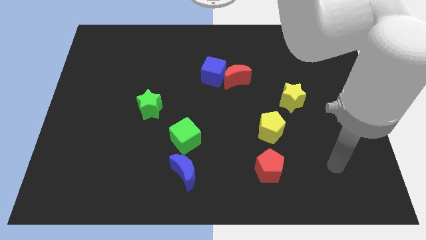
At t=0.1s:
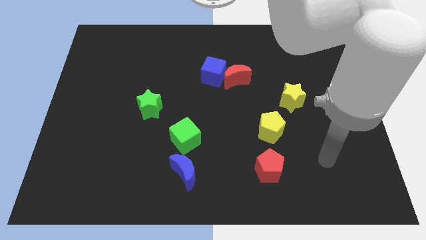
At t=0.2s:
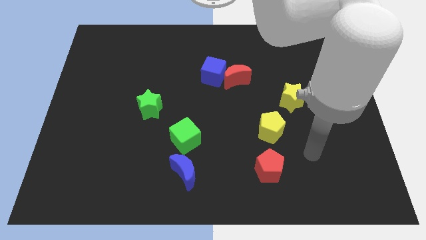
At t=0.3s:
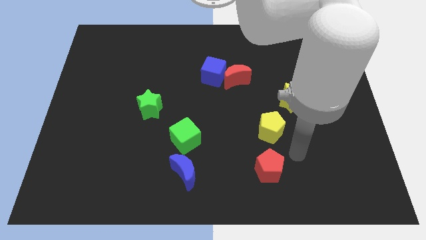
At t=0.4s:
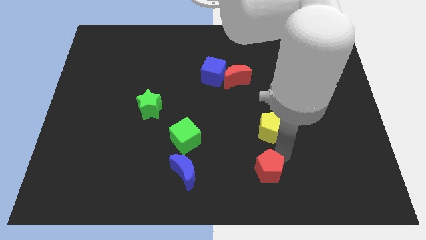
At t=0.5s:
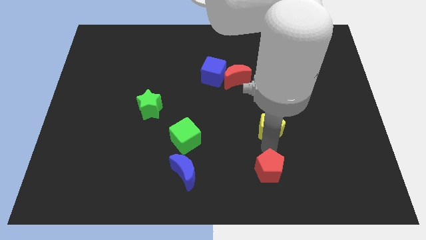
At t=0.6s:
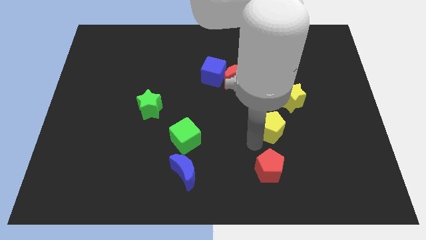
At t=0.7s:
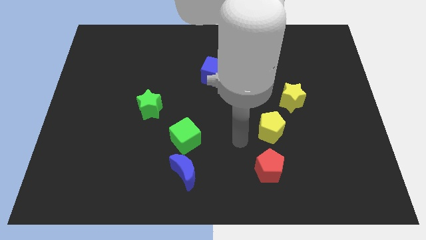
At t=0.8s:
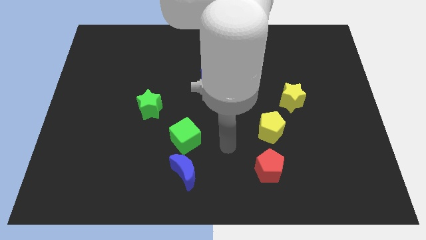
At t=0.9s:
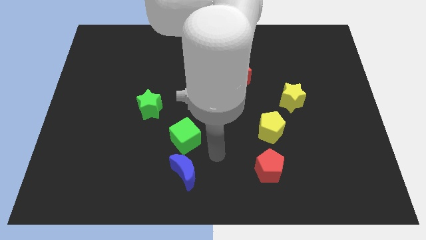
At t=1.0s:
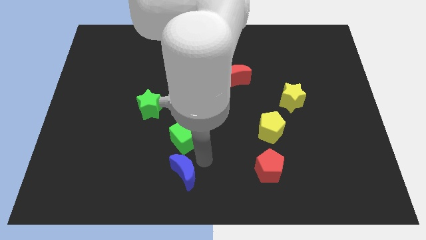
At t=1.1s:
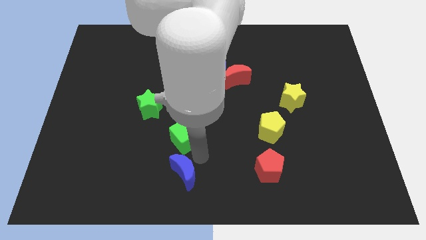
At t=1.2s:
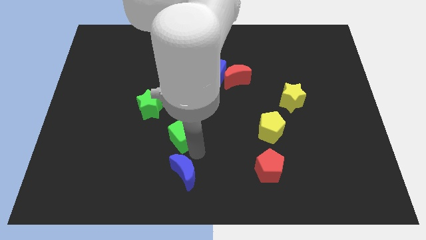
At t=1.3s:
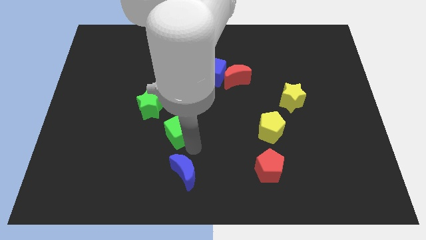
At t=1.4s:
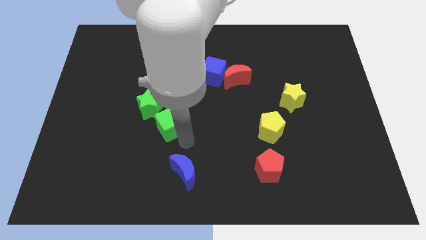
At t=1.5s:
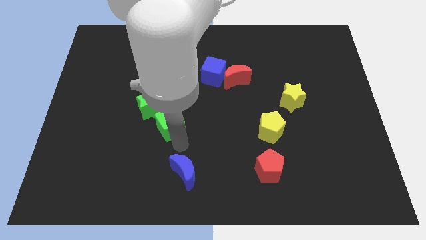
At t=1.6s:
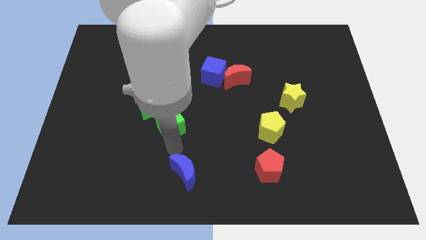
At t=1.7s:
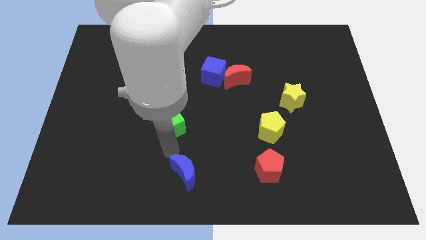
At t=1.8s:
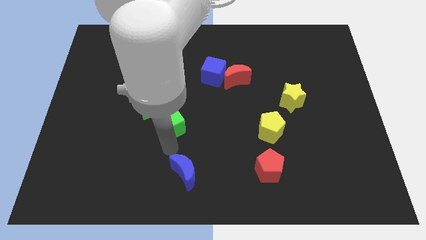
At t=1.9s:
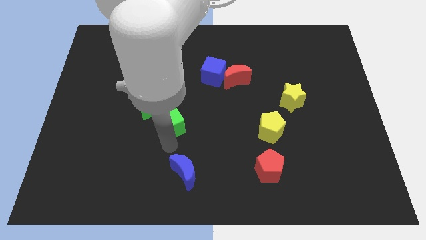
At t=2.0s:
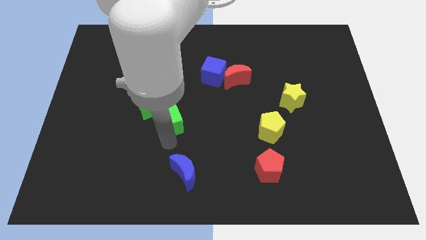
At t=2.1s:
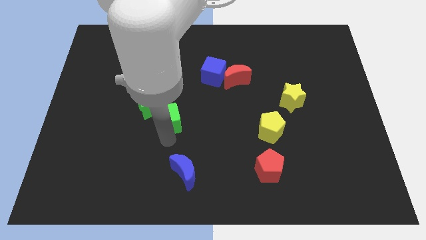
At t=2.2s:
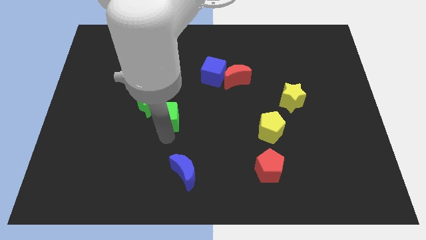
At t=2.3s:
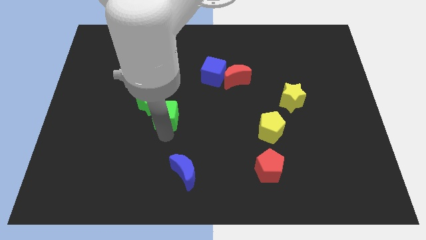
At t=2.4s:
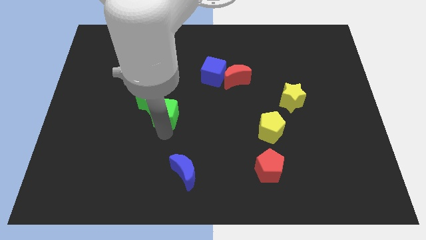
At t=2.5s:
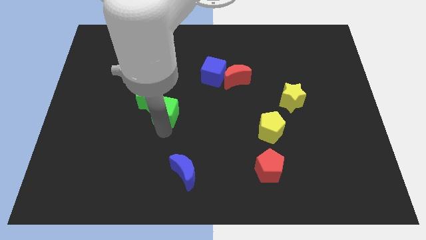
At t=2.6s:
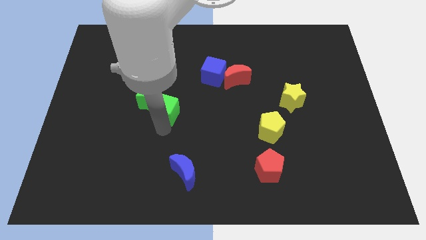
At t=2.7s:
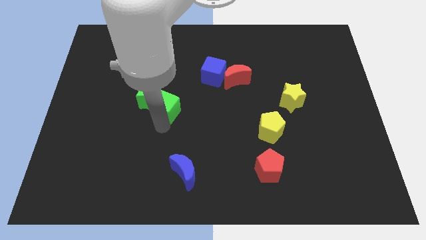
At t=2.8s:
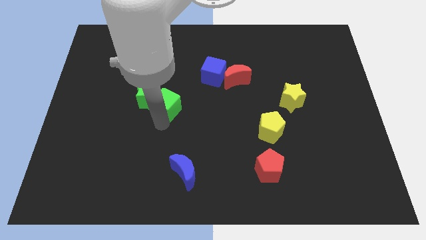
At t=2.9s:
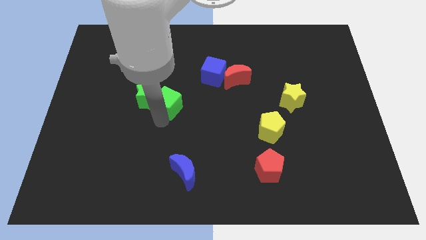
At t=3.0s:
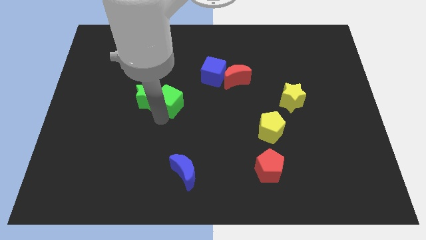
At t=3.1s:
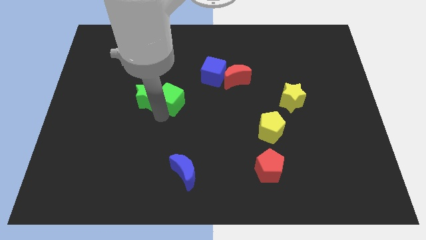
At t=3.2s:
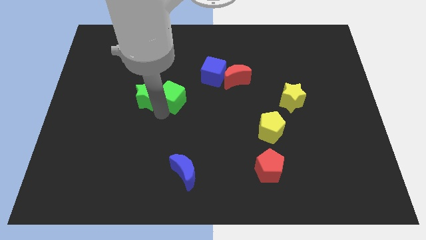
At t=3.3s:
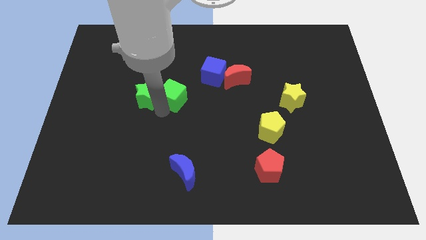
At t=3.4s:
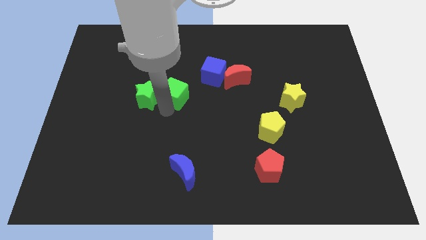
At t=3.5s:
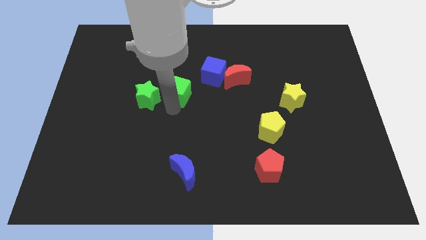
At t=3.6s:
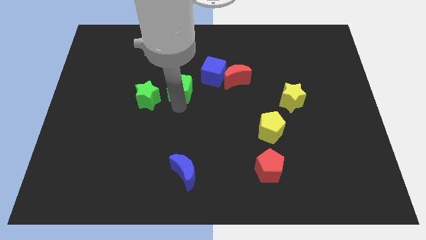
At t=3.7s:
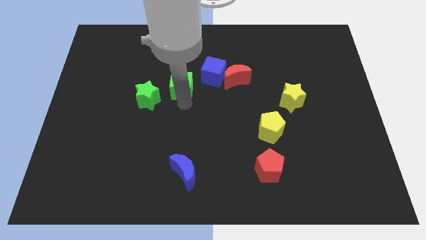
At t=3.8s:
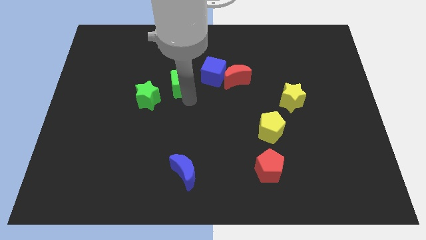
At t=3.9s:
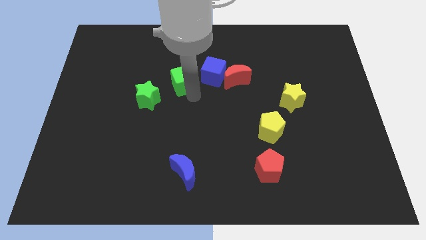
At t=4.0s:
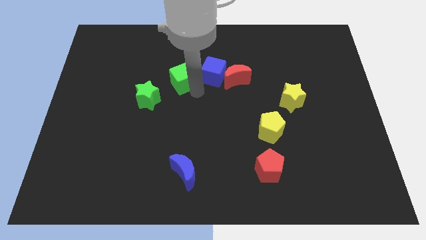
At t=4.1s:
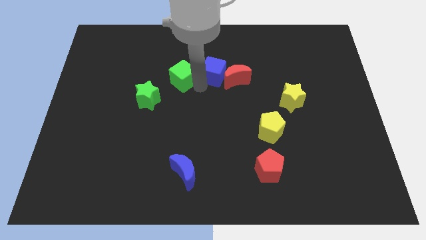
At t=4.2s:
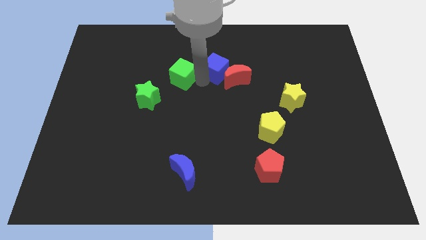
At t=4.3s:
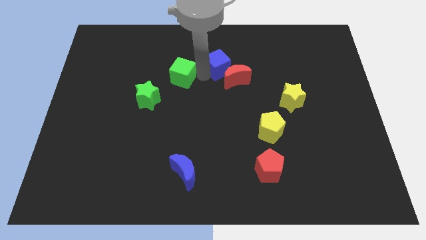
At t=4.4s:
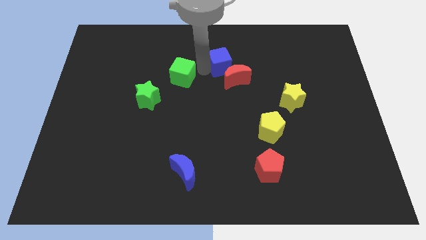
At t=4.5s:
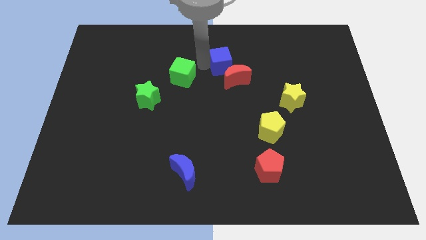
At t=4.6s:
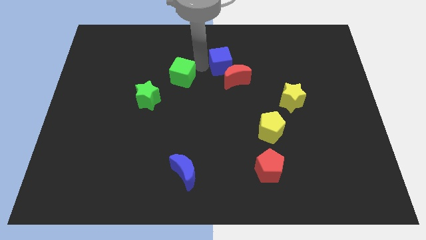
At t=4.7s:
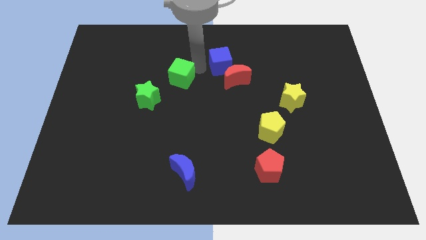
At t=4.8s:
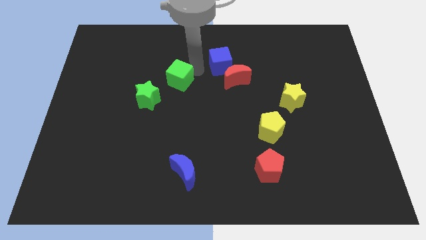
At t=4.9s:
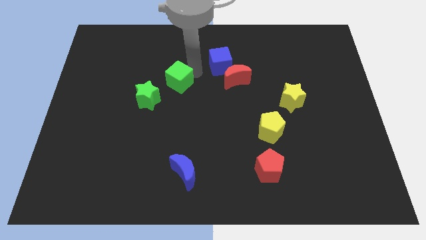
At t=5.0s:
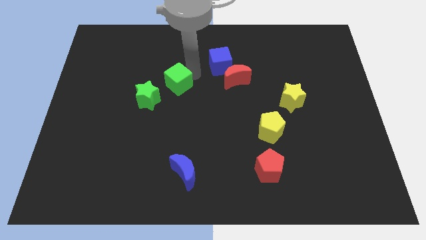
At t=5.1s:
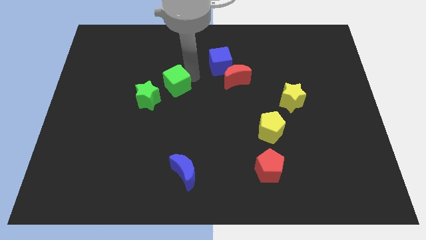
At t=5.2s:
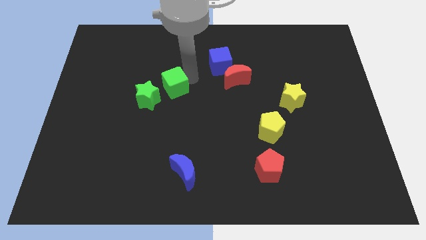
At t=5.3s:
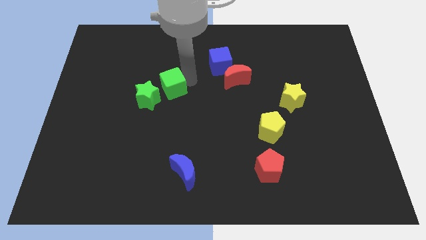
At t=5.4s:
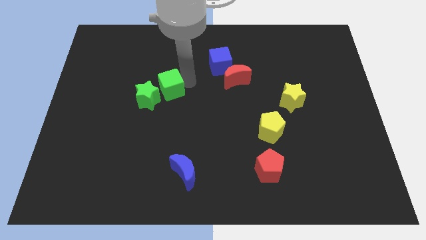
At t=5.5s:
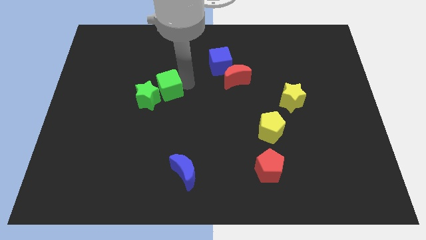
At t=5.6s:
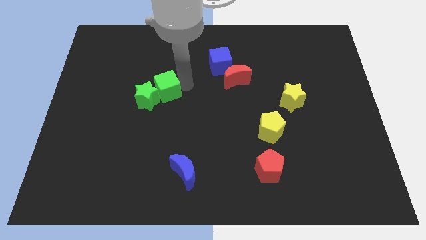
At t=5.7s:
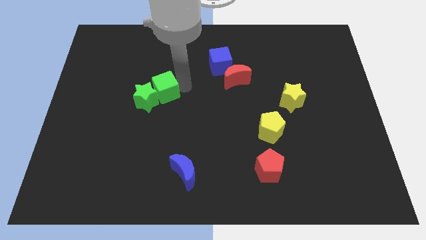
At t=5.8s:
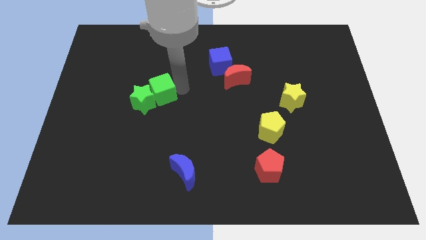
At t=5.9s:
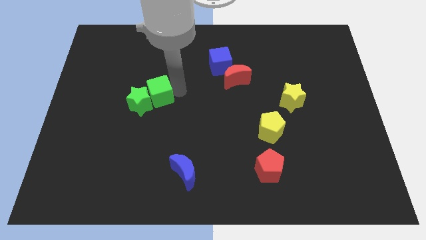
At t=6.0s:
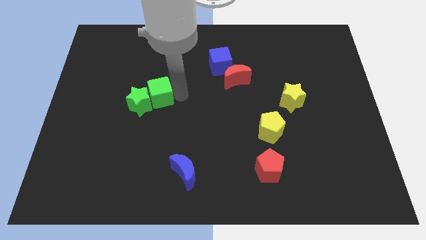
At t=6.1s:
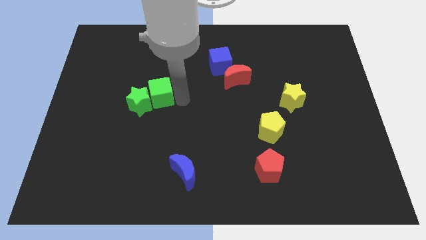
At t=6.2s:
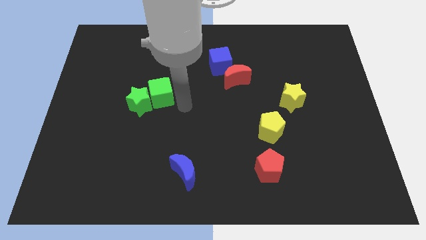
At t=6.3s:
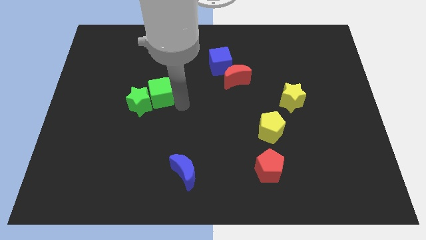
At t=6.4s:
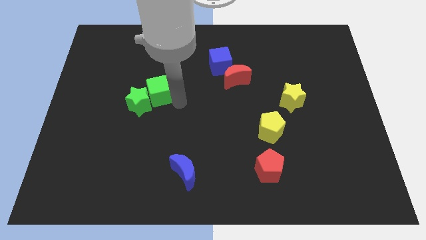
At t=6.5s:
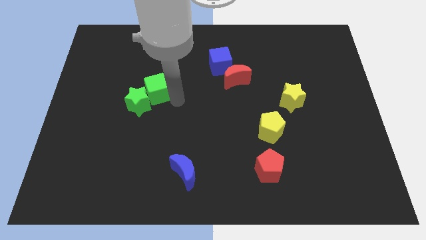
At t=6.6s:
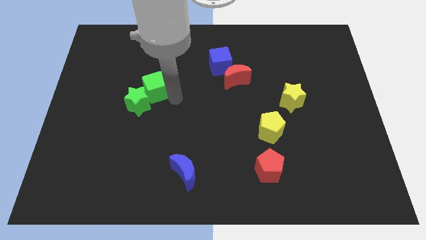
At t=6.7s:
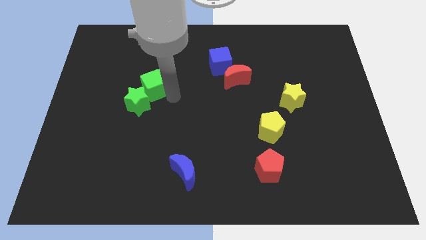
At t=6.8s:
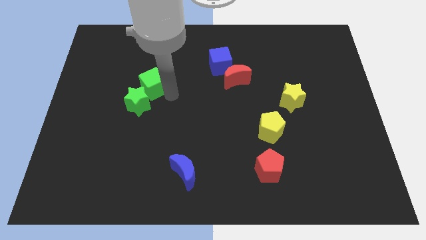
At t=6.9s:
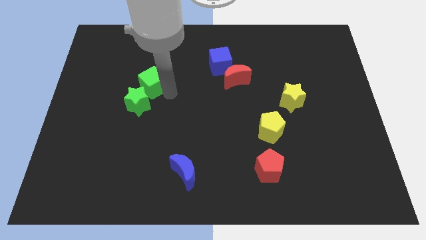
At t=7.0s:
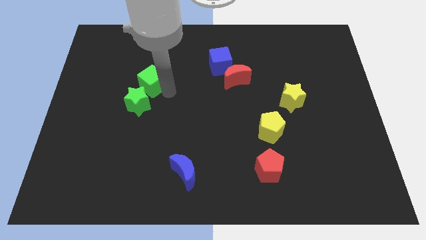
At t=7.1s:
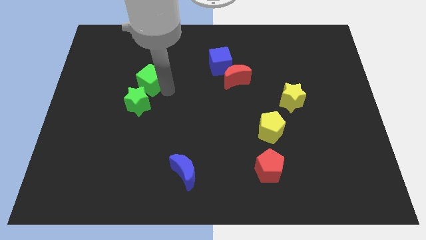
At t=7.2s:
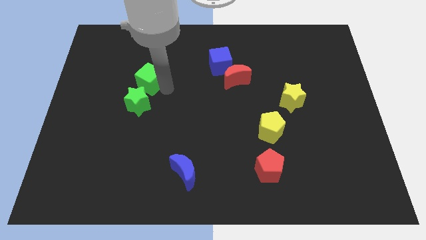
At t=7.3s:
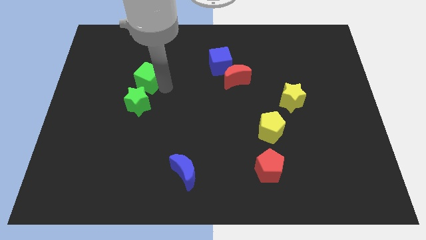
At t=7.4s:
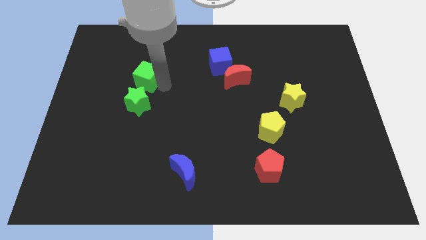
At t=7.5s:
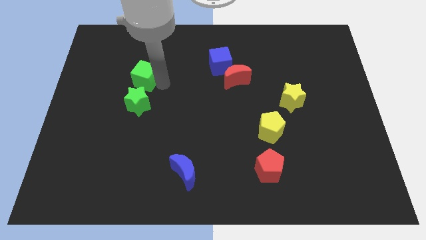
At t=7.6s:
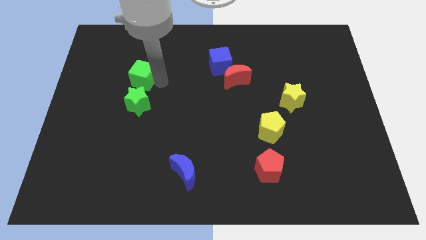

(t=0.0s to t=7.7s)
push the green cube diagonally upwards and to the left
